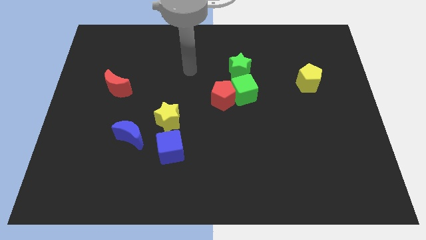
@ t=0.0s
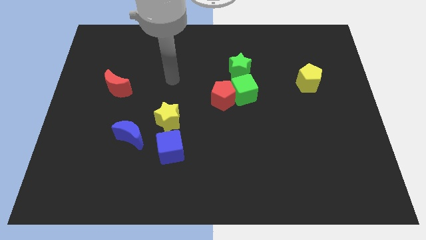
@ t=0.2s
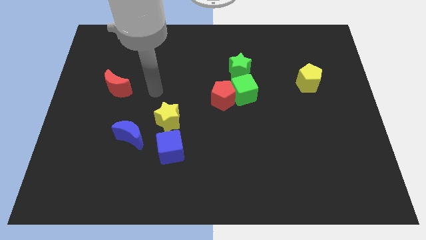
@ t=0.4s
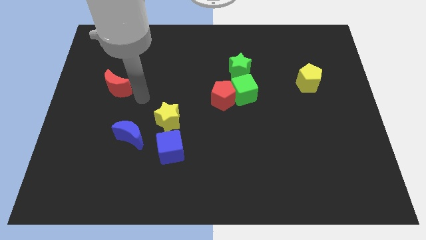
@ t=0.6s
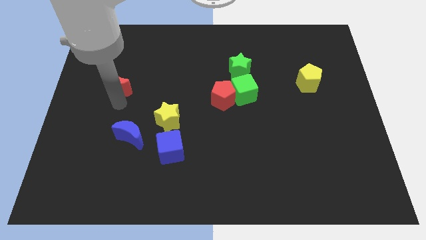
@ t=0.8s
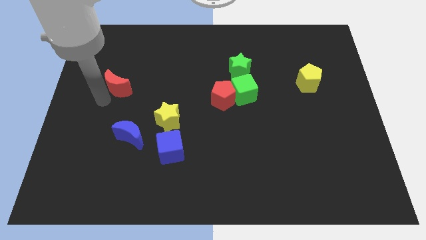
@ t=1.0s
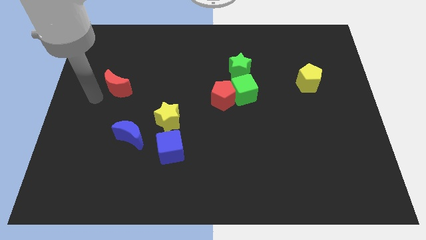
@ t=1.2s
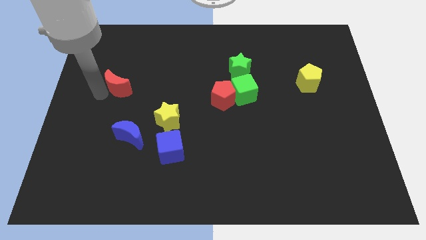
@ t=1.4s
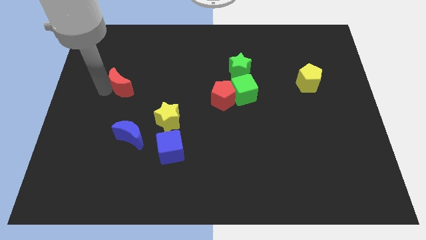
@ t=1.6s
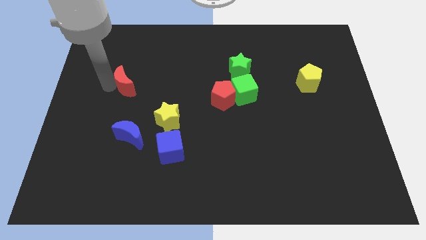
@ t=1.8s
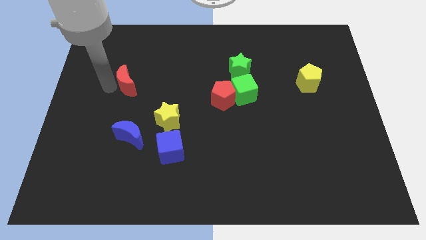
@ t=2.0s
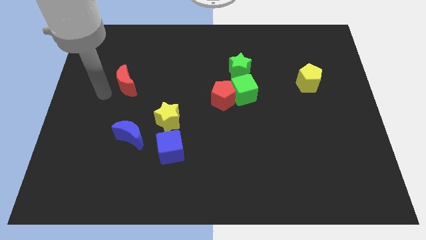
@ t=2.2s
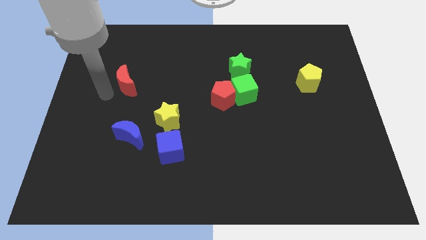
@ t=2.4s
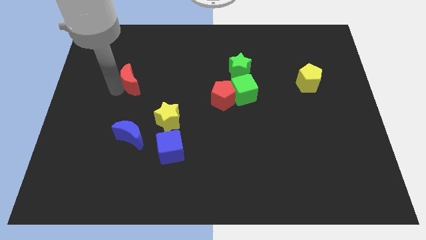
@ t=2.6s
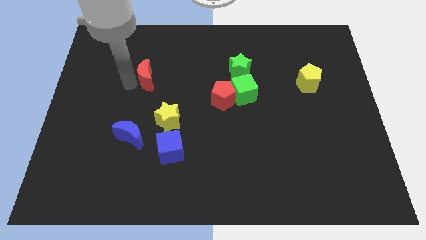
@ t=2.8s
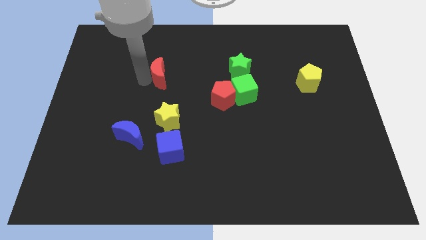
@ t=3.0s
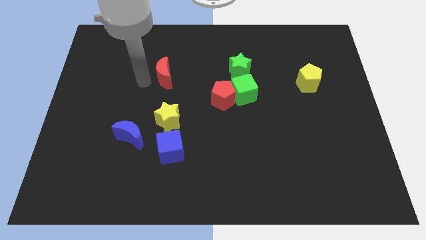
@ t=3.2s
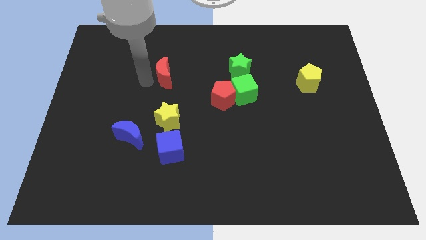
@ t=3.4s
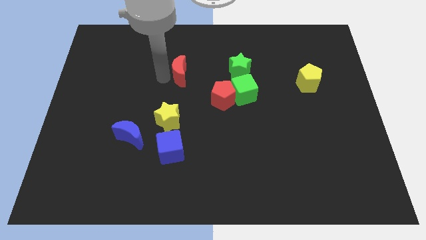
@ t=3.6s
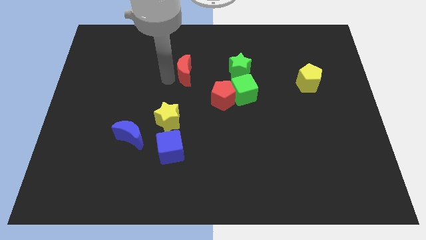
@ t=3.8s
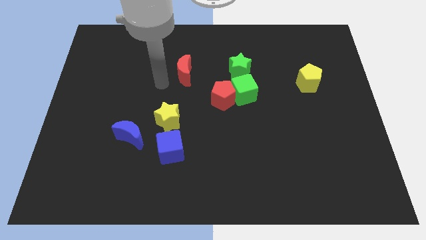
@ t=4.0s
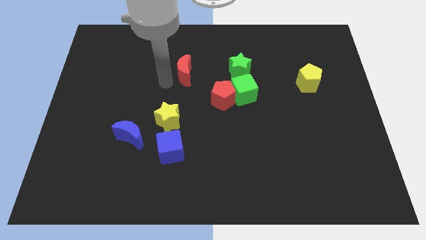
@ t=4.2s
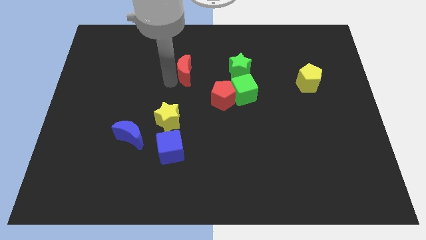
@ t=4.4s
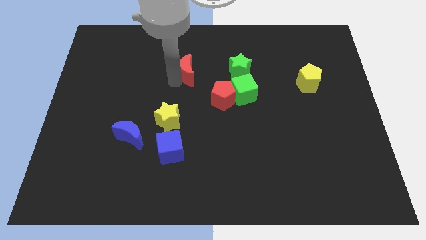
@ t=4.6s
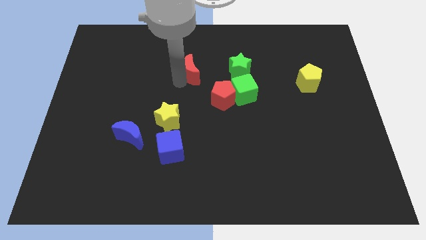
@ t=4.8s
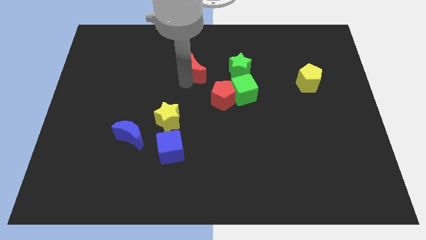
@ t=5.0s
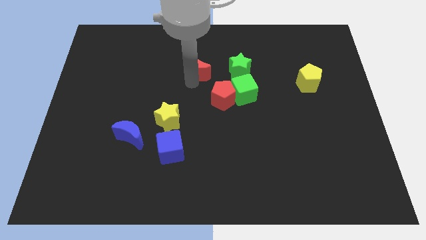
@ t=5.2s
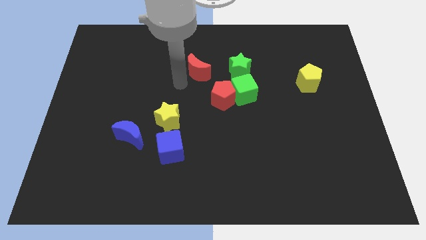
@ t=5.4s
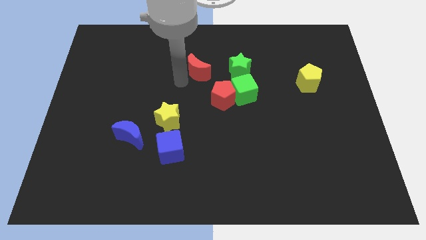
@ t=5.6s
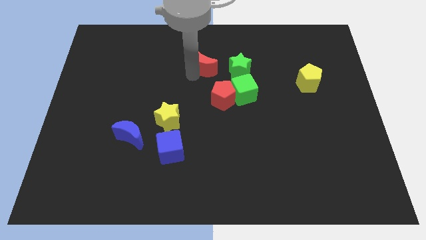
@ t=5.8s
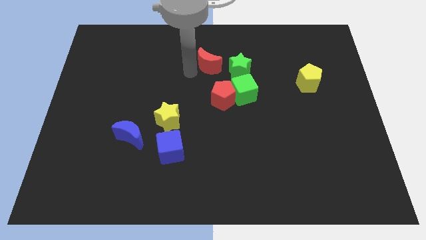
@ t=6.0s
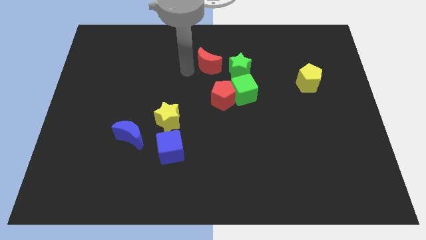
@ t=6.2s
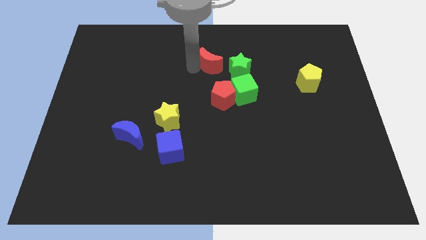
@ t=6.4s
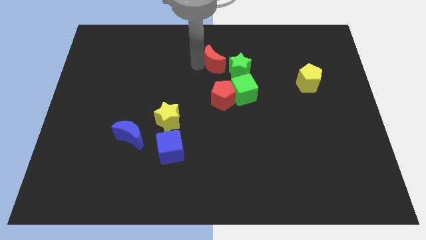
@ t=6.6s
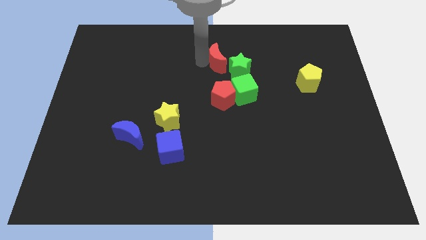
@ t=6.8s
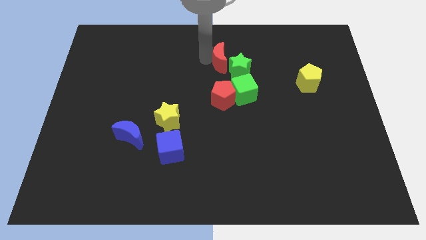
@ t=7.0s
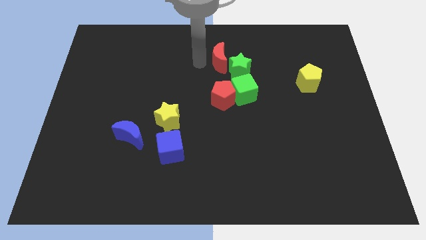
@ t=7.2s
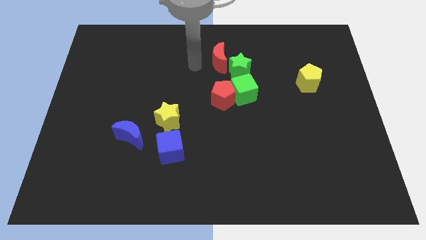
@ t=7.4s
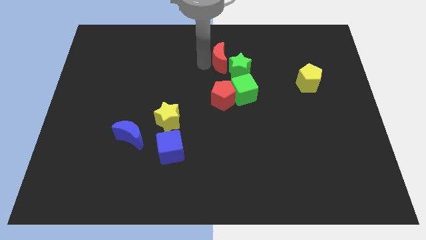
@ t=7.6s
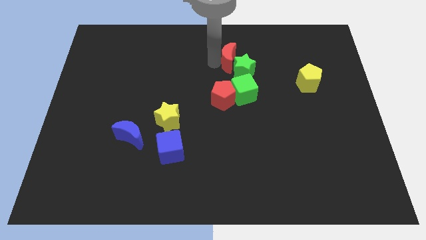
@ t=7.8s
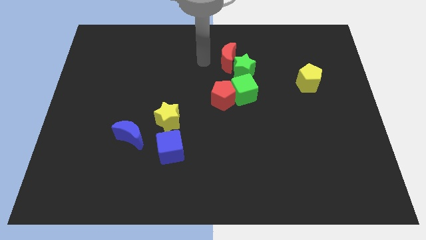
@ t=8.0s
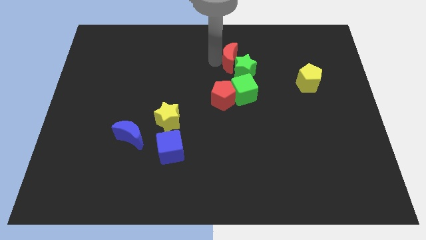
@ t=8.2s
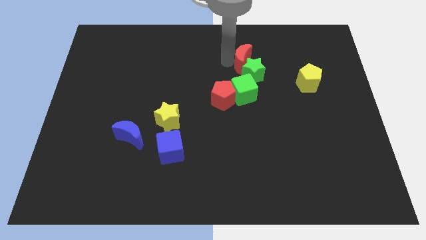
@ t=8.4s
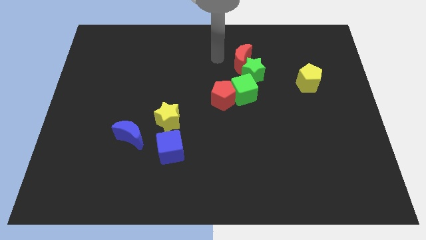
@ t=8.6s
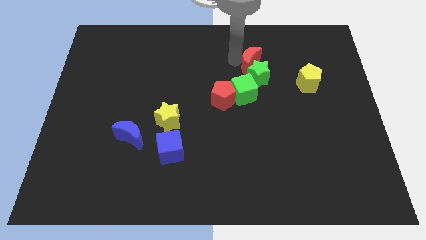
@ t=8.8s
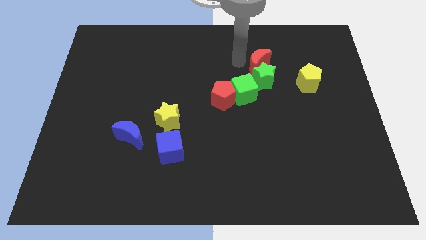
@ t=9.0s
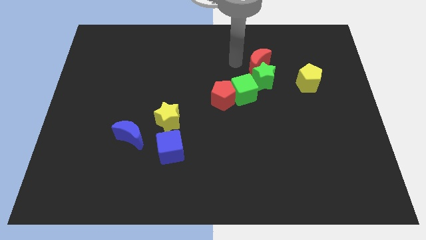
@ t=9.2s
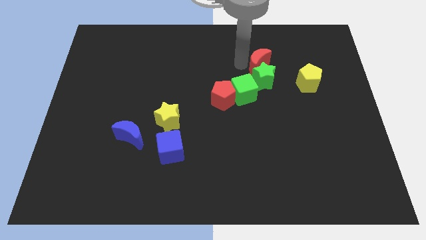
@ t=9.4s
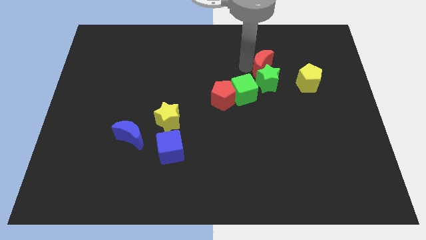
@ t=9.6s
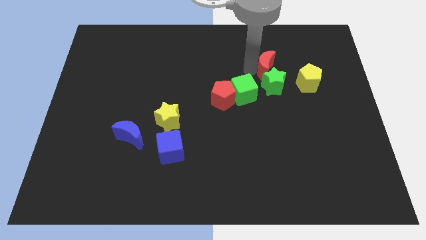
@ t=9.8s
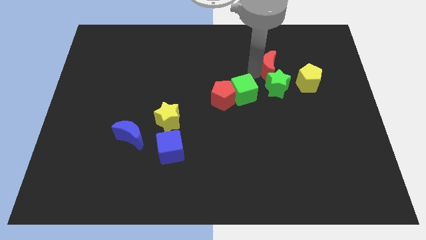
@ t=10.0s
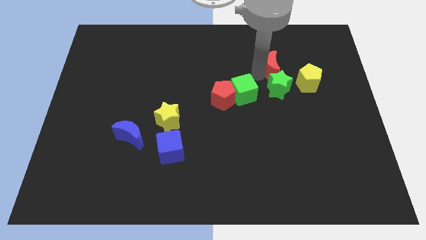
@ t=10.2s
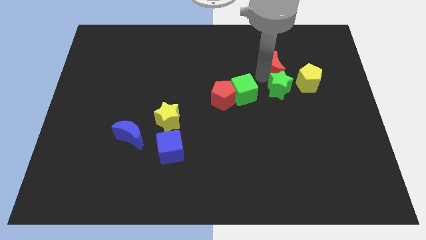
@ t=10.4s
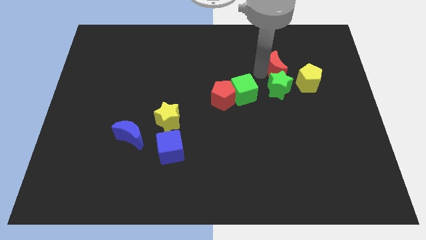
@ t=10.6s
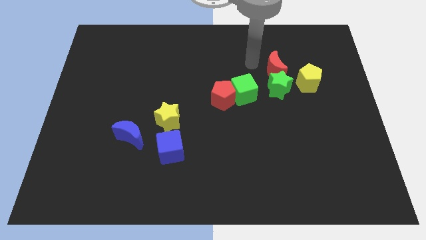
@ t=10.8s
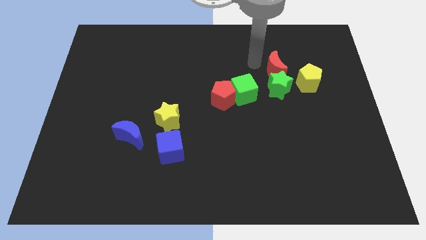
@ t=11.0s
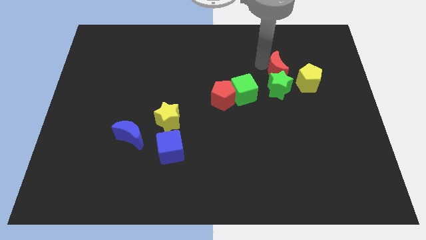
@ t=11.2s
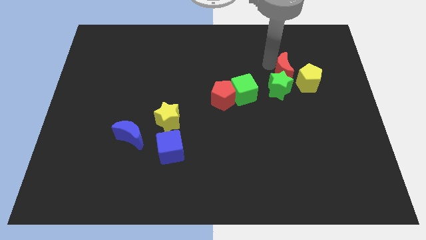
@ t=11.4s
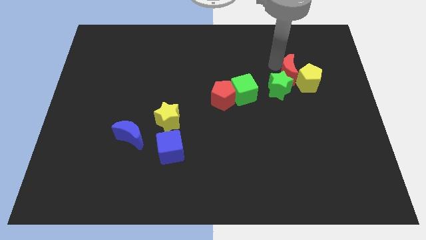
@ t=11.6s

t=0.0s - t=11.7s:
put the red moon next to the yellow pentagon

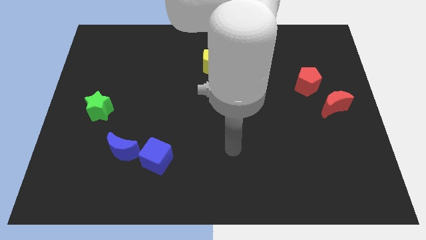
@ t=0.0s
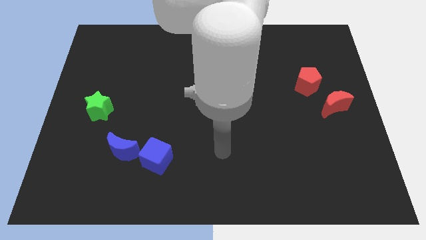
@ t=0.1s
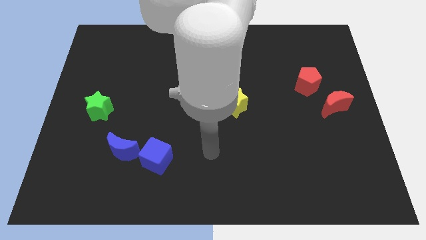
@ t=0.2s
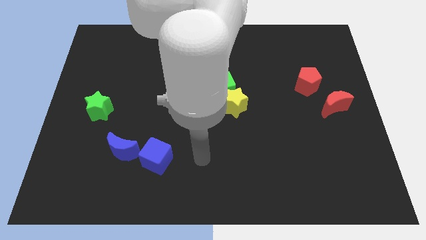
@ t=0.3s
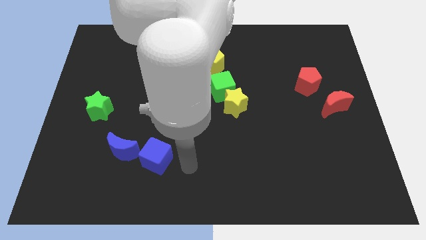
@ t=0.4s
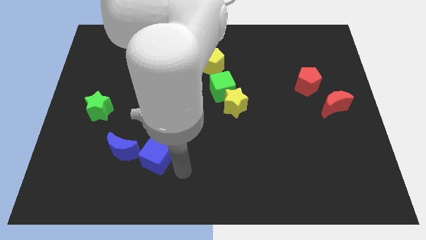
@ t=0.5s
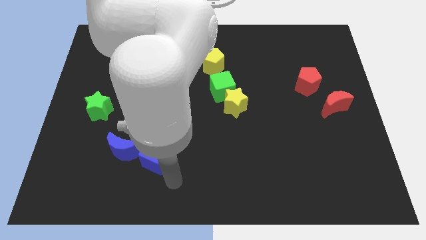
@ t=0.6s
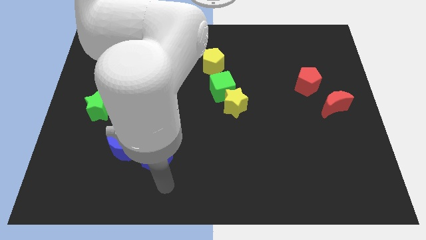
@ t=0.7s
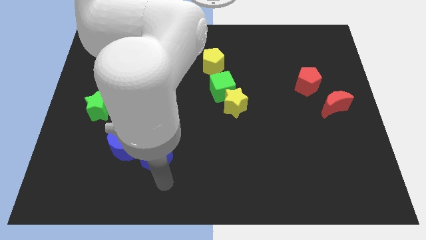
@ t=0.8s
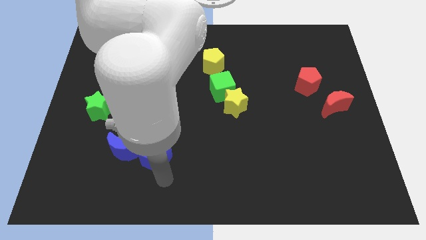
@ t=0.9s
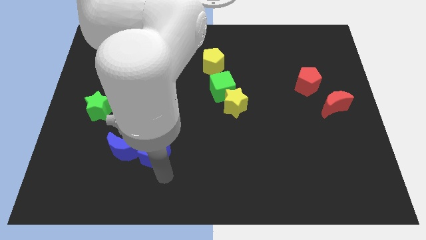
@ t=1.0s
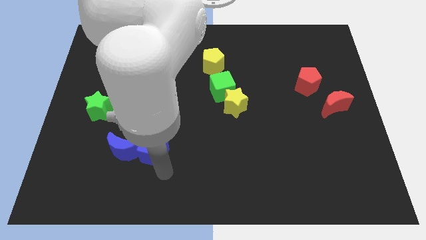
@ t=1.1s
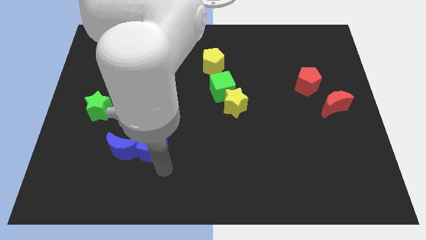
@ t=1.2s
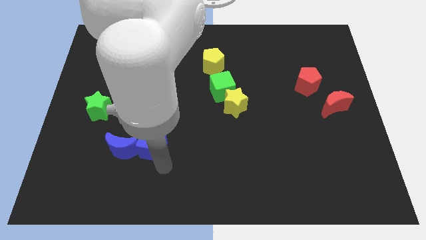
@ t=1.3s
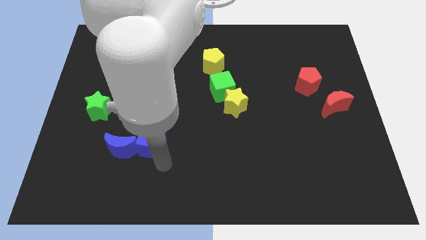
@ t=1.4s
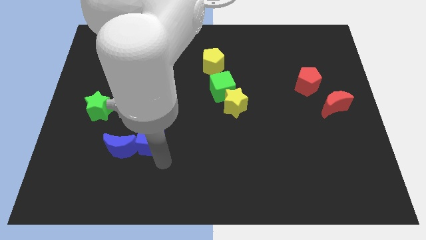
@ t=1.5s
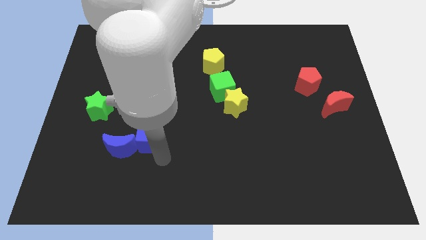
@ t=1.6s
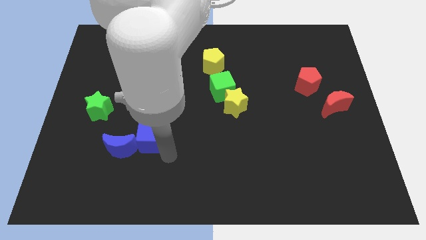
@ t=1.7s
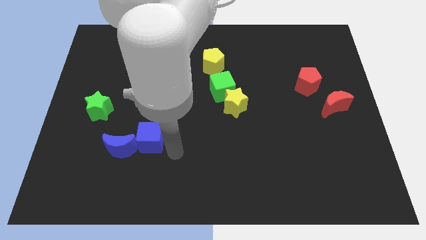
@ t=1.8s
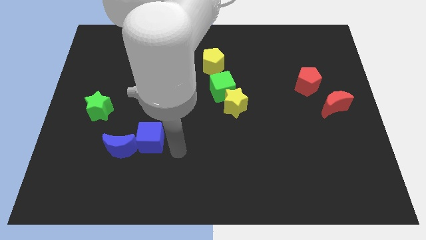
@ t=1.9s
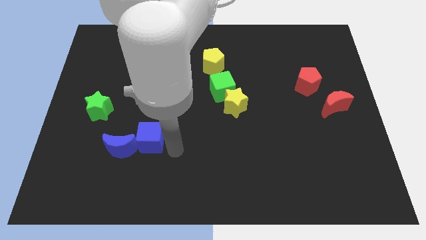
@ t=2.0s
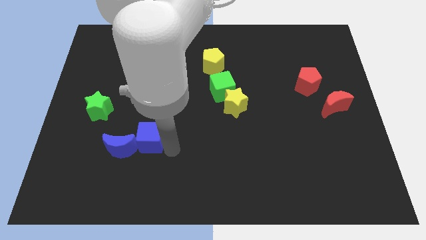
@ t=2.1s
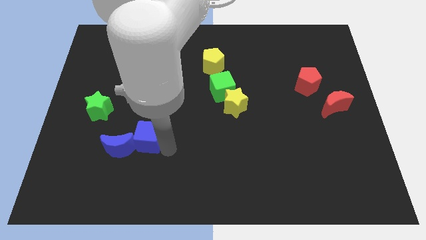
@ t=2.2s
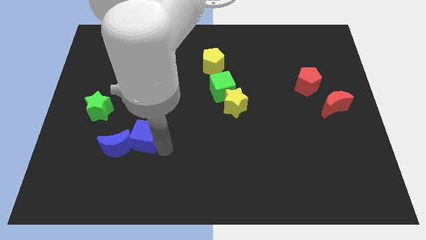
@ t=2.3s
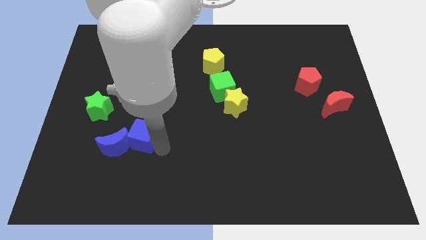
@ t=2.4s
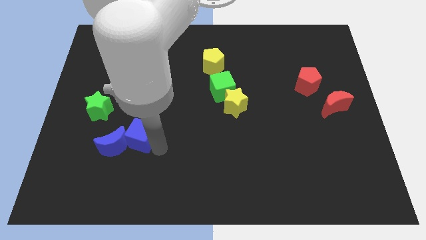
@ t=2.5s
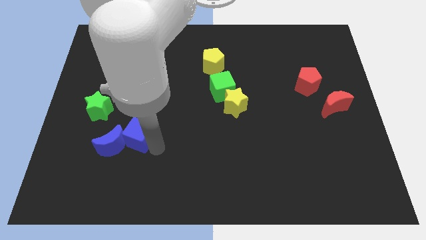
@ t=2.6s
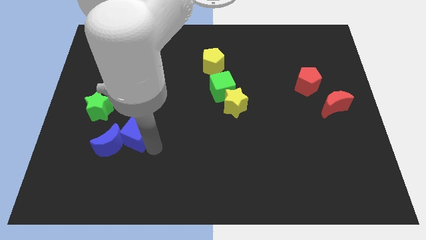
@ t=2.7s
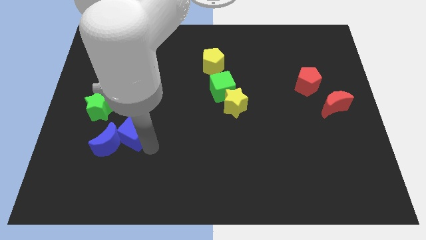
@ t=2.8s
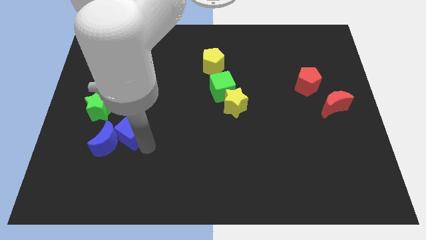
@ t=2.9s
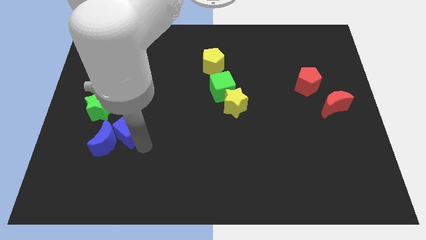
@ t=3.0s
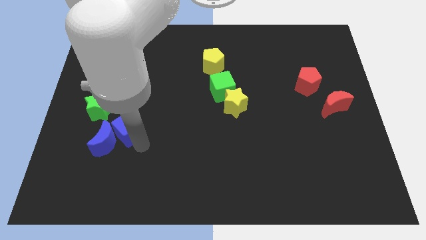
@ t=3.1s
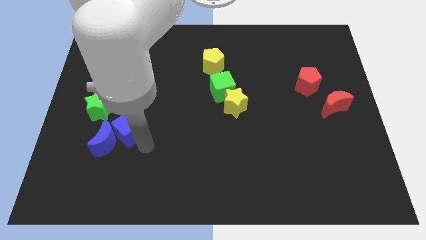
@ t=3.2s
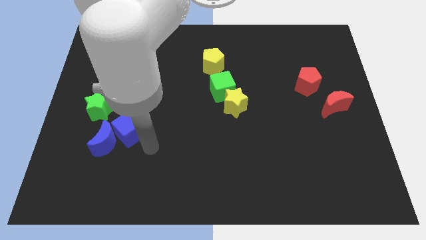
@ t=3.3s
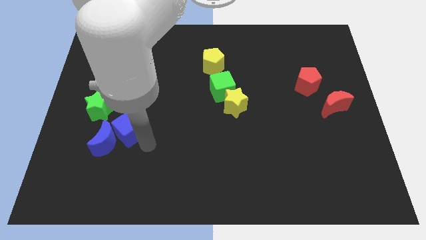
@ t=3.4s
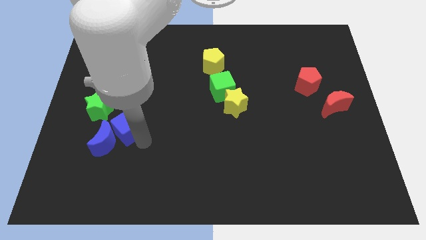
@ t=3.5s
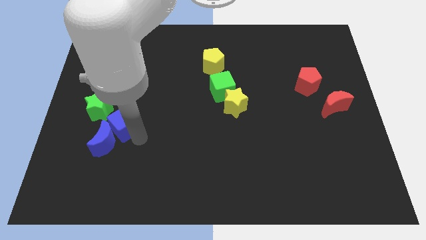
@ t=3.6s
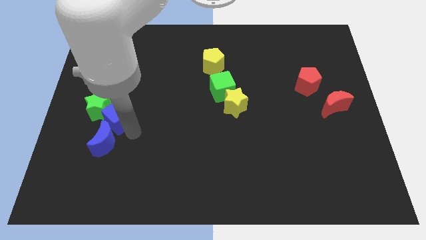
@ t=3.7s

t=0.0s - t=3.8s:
move the blue cube next to the green star
